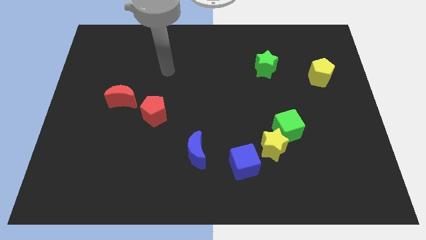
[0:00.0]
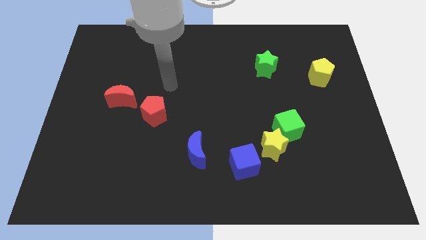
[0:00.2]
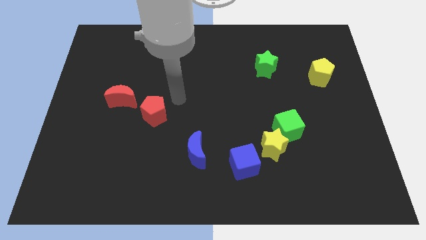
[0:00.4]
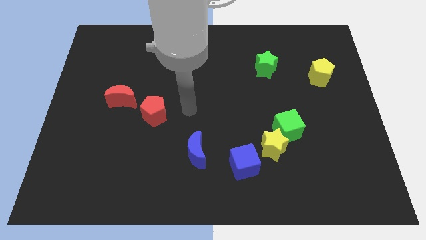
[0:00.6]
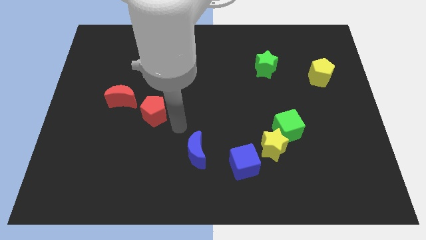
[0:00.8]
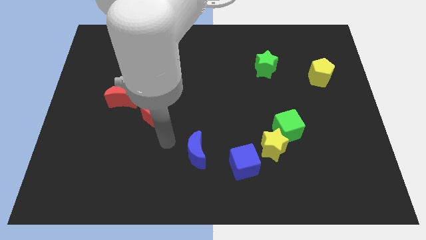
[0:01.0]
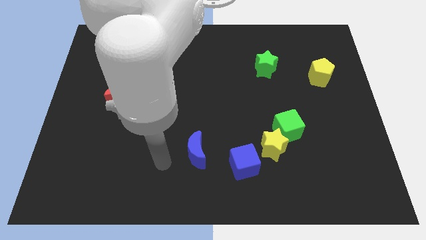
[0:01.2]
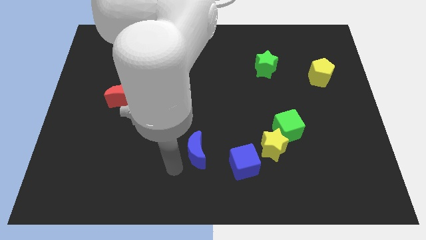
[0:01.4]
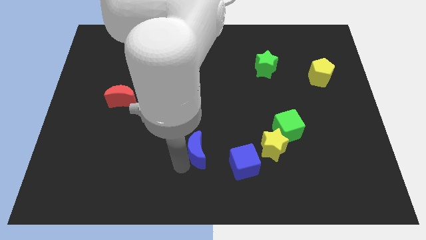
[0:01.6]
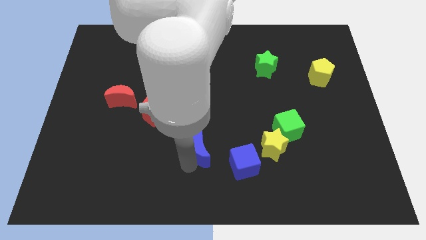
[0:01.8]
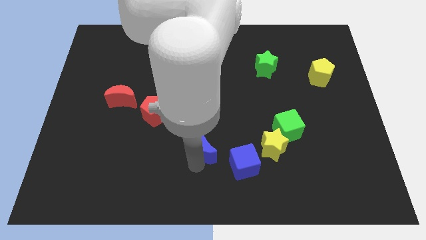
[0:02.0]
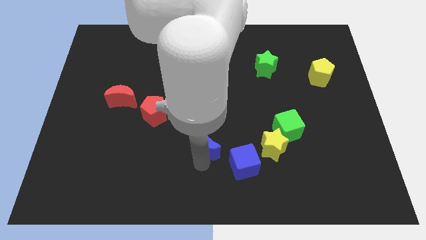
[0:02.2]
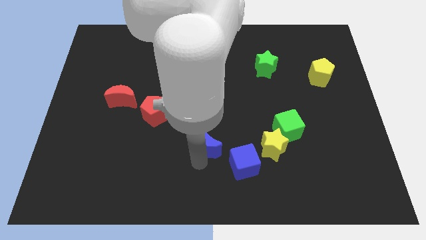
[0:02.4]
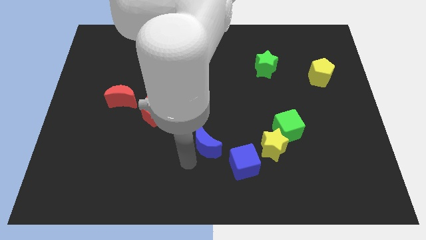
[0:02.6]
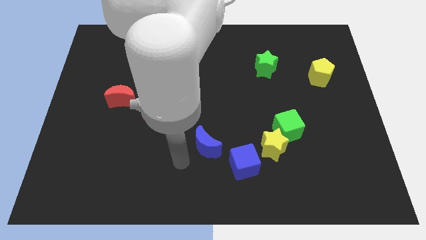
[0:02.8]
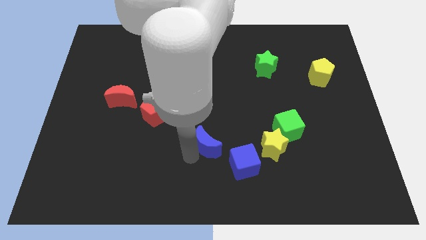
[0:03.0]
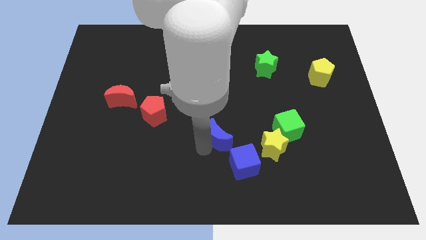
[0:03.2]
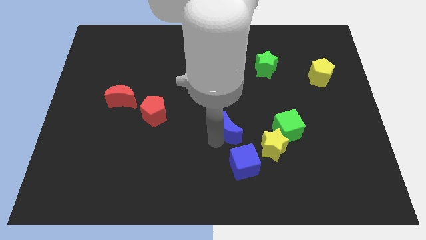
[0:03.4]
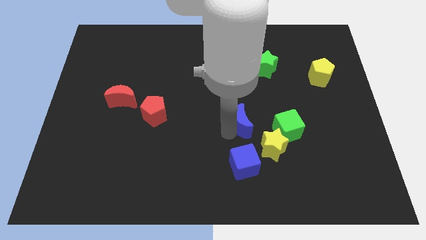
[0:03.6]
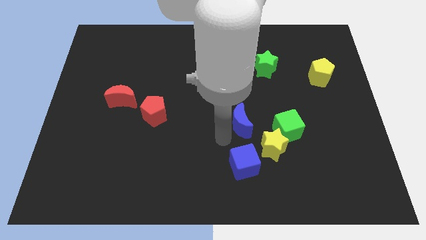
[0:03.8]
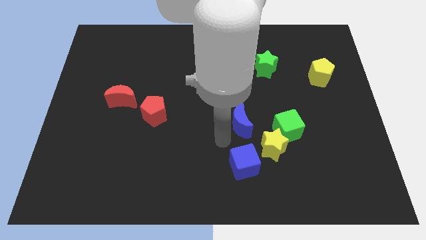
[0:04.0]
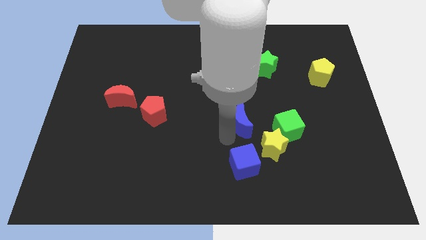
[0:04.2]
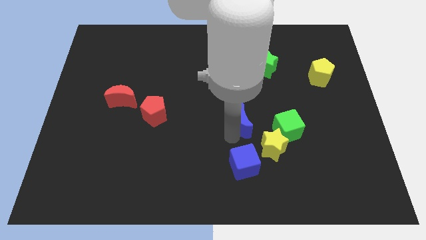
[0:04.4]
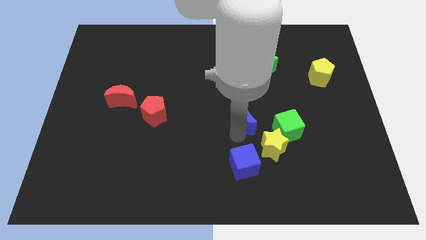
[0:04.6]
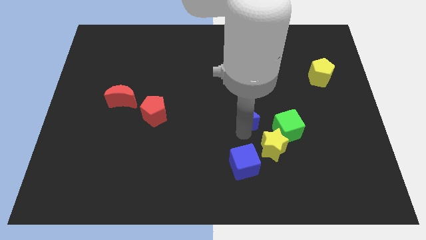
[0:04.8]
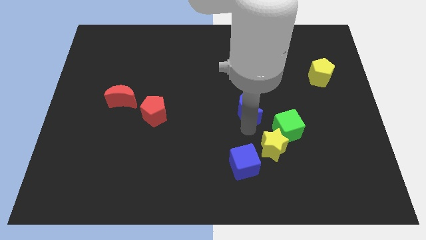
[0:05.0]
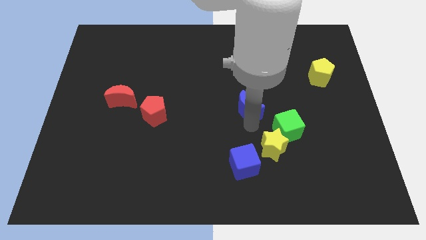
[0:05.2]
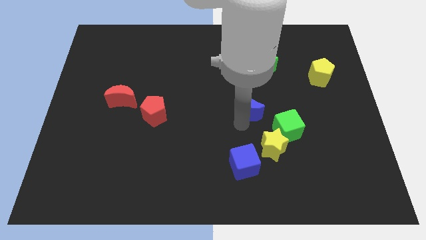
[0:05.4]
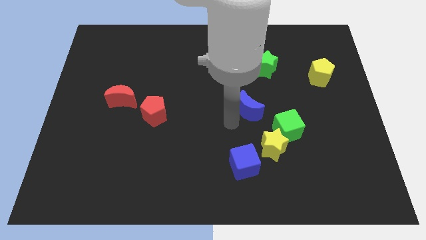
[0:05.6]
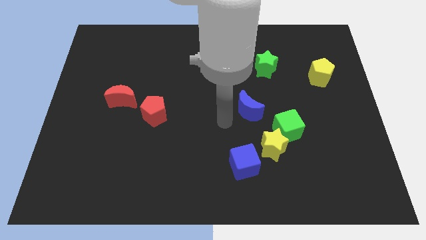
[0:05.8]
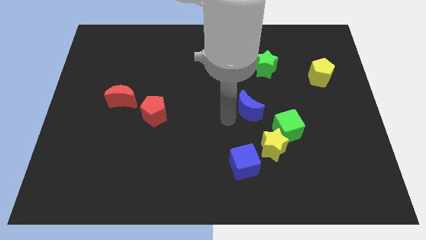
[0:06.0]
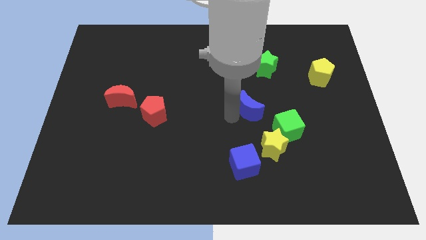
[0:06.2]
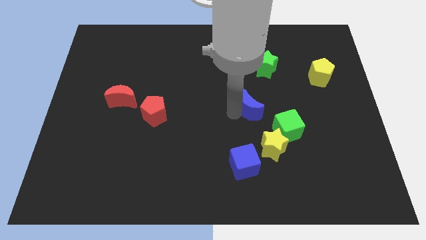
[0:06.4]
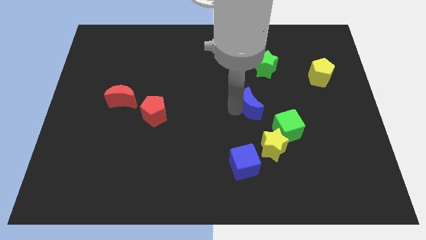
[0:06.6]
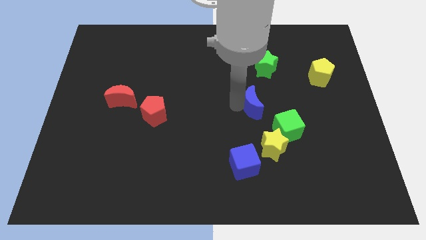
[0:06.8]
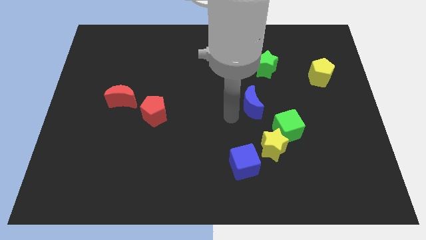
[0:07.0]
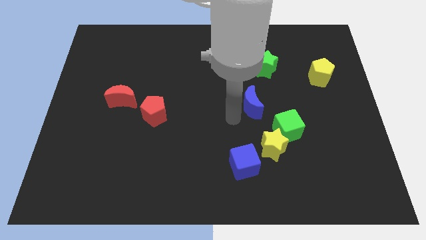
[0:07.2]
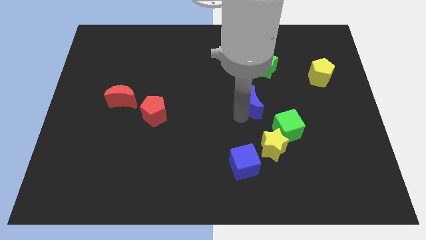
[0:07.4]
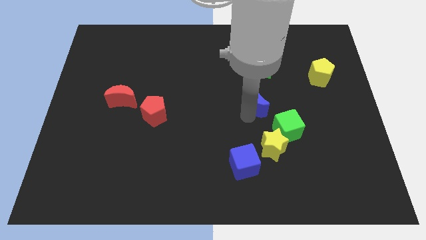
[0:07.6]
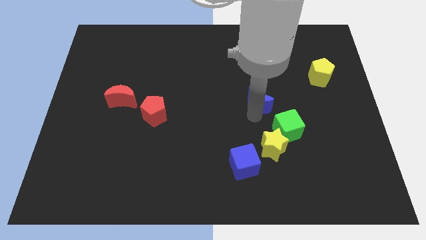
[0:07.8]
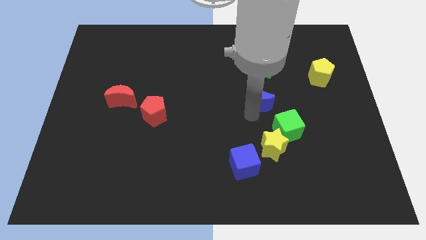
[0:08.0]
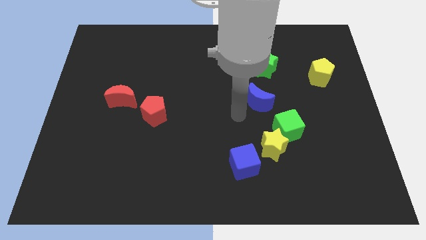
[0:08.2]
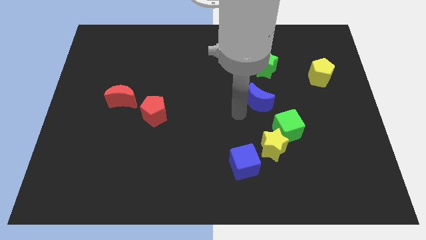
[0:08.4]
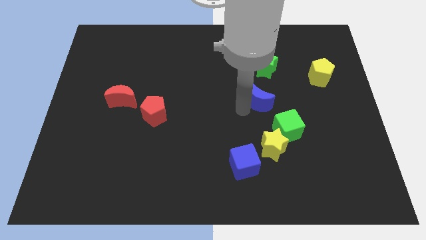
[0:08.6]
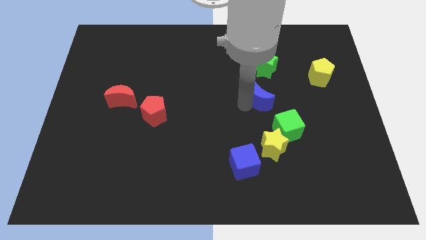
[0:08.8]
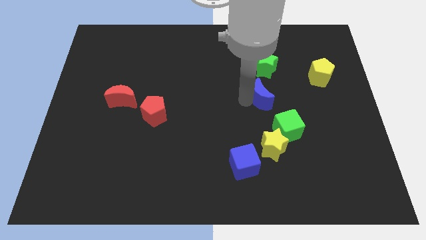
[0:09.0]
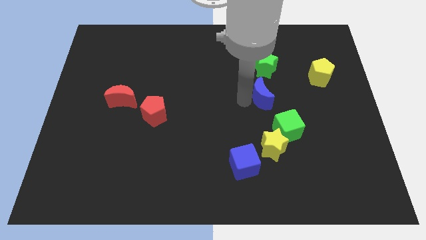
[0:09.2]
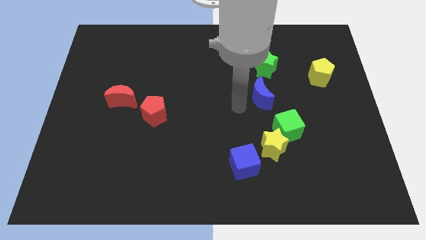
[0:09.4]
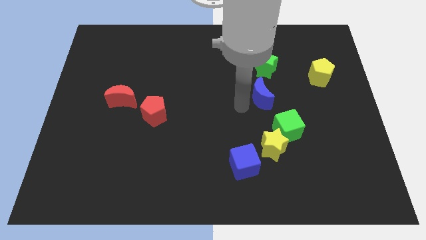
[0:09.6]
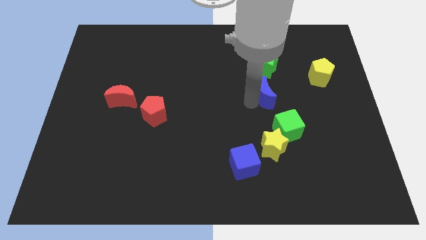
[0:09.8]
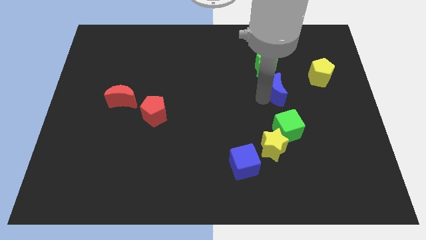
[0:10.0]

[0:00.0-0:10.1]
push the blue moon diagonally down and to the right of the green star

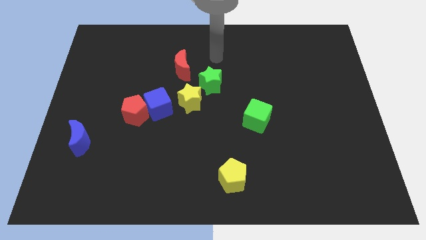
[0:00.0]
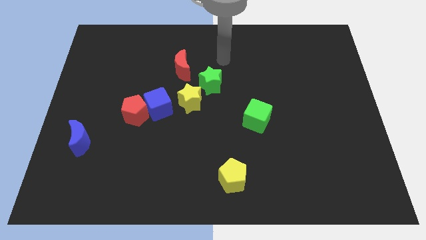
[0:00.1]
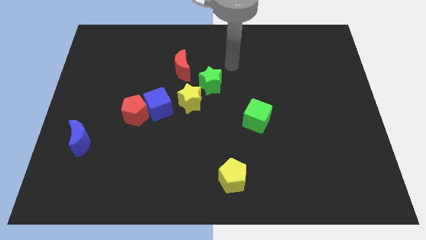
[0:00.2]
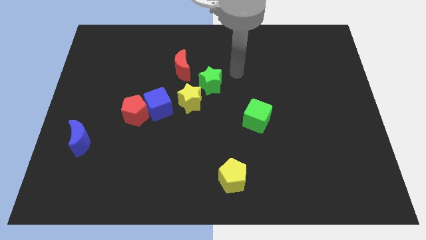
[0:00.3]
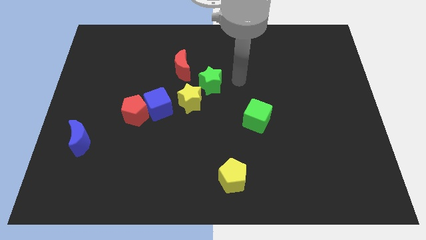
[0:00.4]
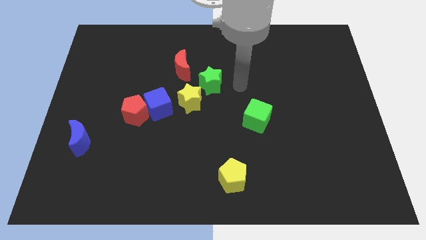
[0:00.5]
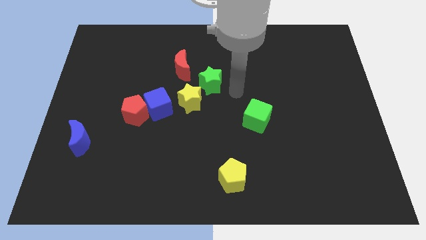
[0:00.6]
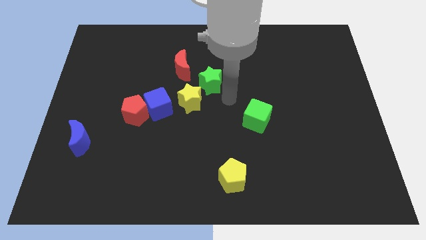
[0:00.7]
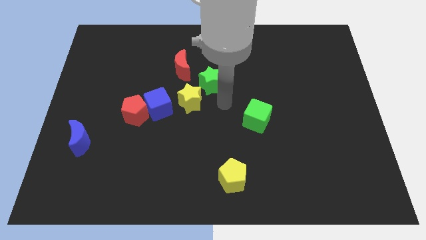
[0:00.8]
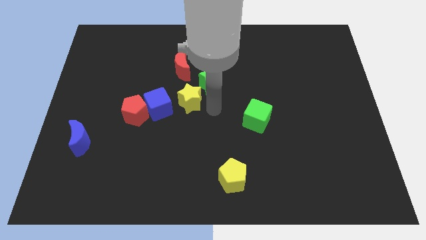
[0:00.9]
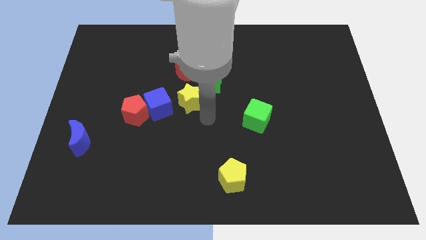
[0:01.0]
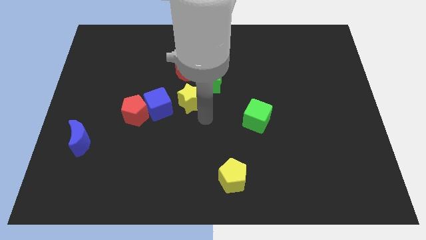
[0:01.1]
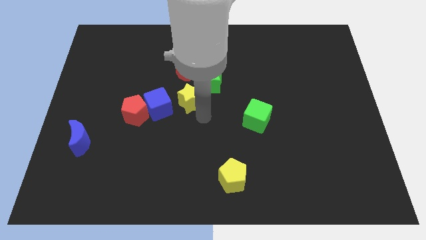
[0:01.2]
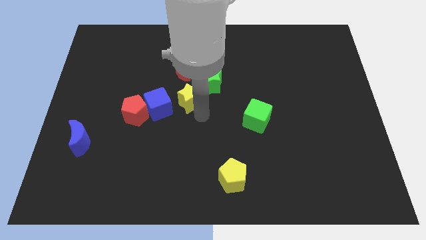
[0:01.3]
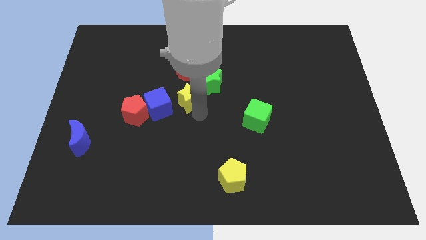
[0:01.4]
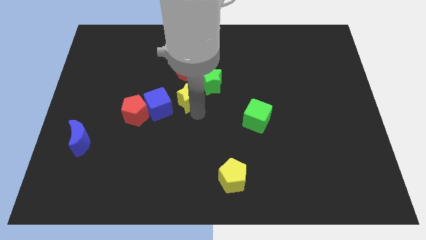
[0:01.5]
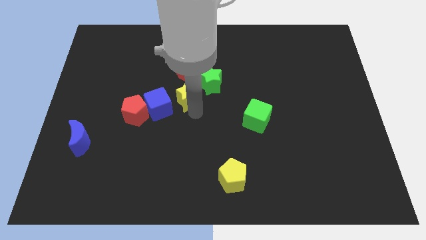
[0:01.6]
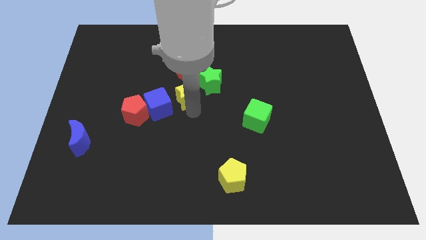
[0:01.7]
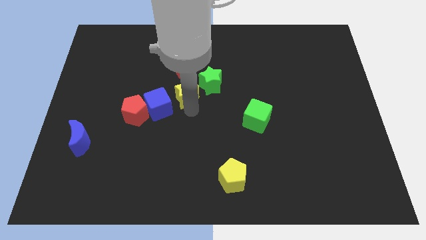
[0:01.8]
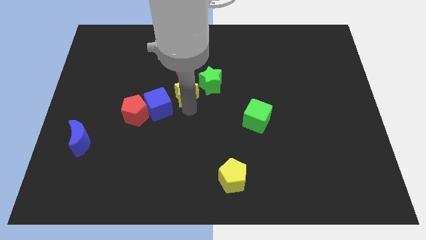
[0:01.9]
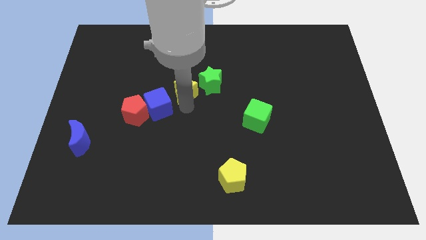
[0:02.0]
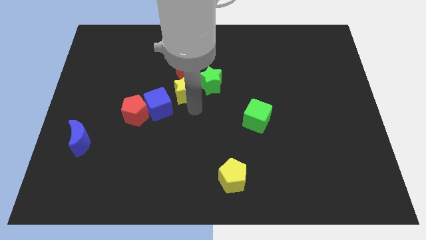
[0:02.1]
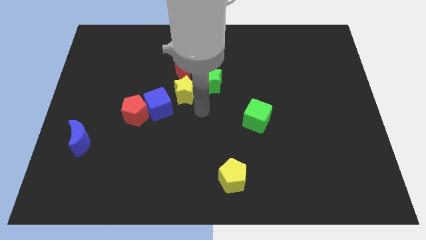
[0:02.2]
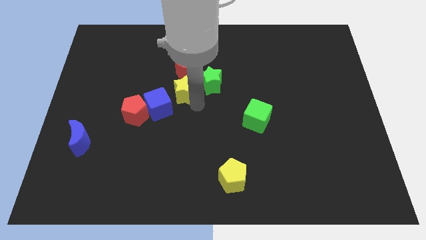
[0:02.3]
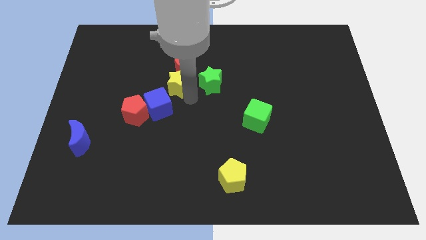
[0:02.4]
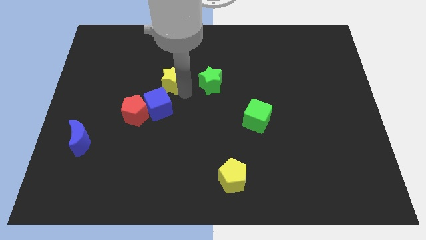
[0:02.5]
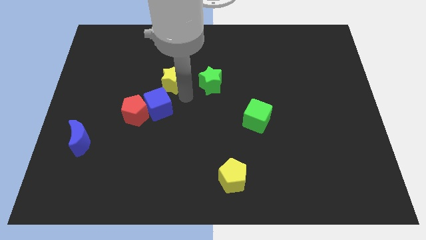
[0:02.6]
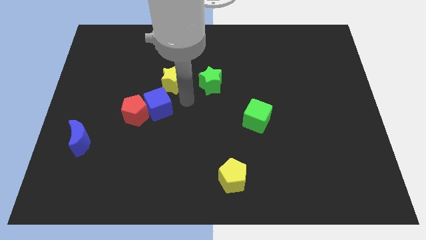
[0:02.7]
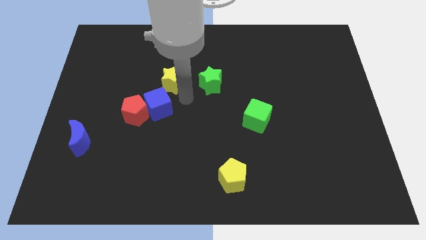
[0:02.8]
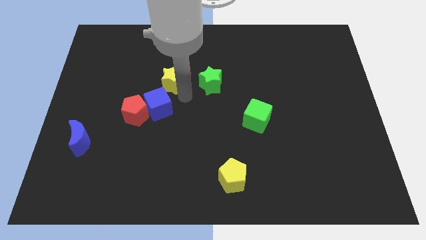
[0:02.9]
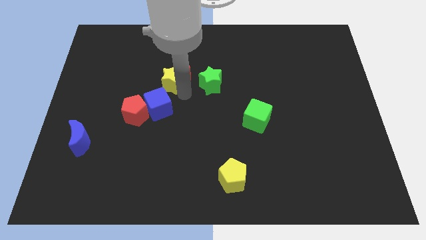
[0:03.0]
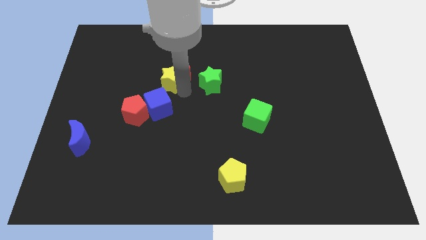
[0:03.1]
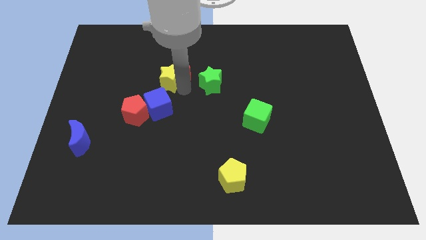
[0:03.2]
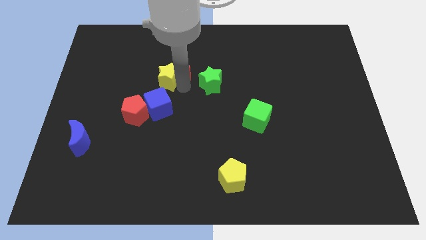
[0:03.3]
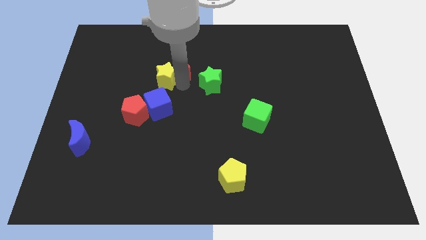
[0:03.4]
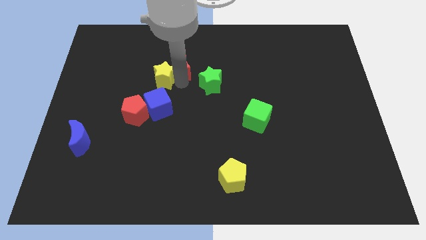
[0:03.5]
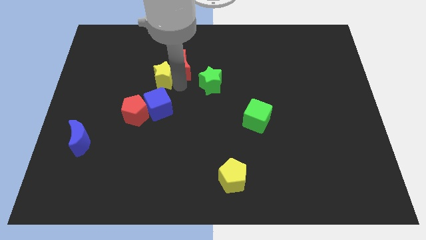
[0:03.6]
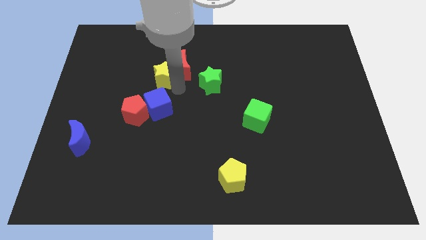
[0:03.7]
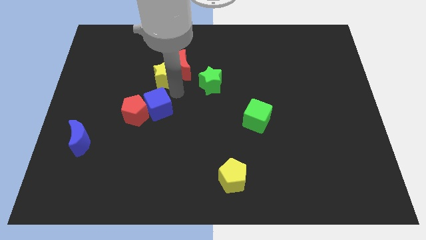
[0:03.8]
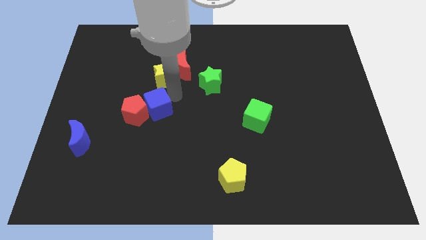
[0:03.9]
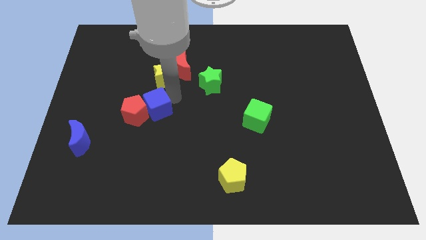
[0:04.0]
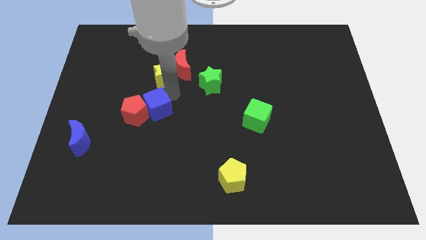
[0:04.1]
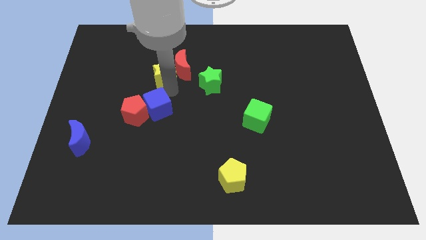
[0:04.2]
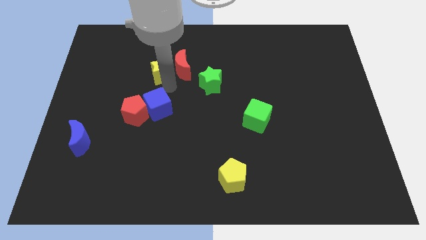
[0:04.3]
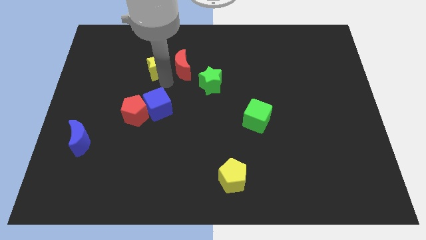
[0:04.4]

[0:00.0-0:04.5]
push the yellow star to the top left side of the red moon
